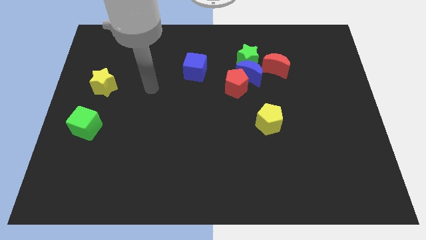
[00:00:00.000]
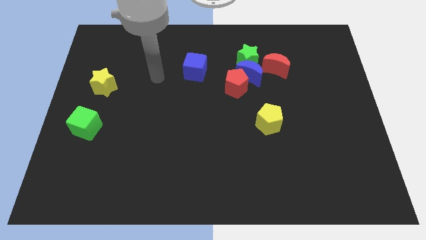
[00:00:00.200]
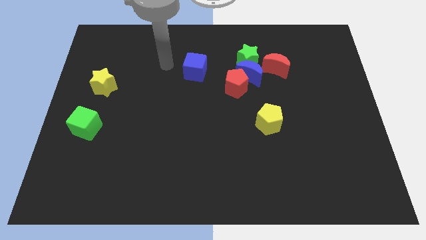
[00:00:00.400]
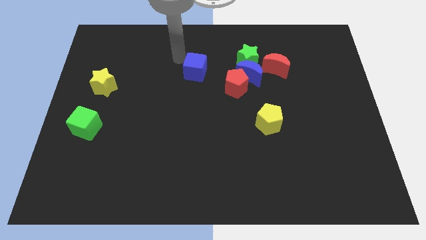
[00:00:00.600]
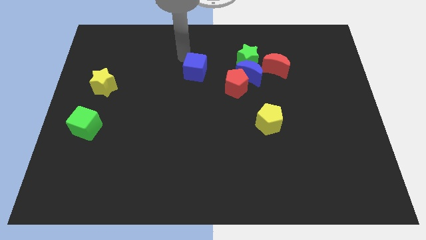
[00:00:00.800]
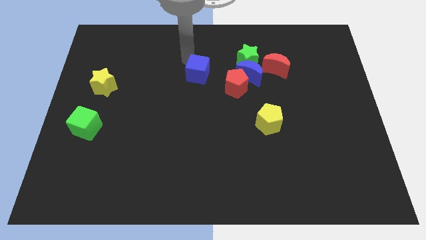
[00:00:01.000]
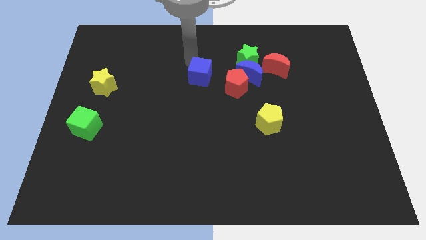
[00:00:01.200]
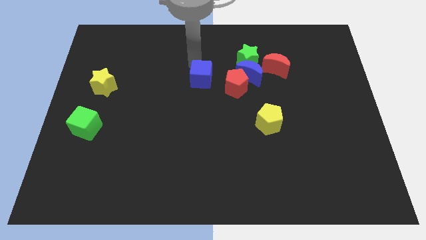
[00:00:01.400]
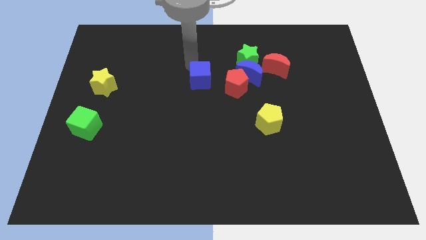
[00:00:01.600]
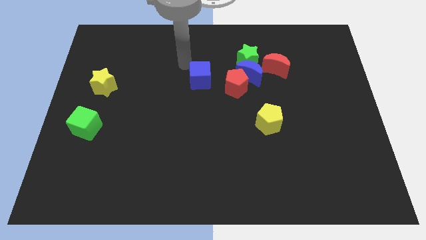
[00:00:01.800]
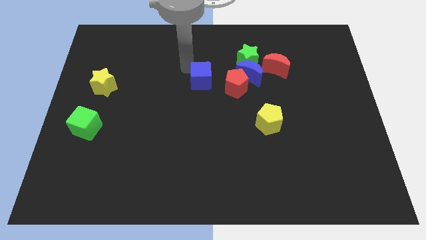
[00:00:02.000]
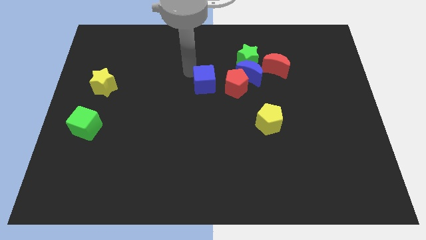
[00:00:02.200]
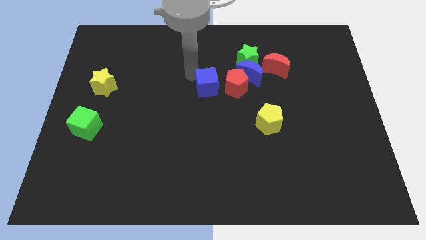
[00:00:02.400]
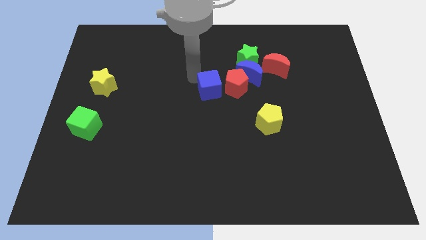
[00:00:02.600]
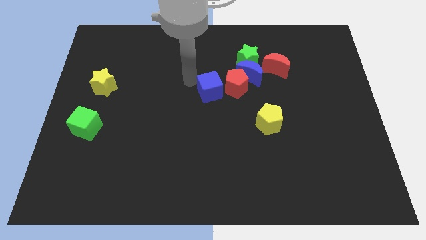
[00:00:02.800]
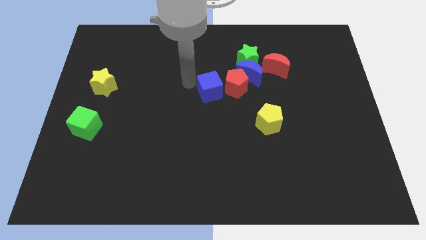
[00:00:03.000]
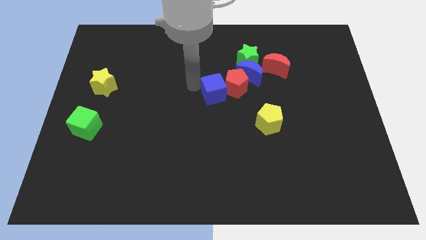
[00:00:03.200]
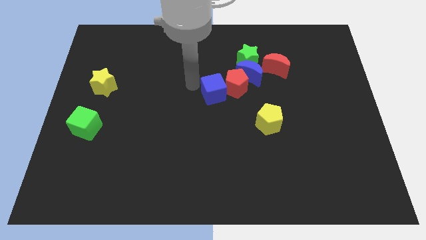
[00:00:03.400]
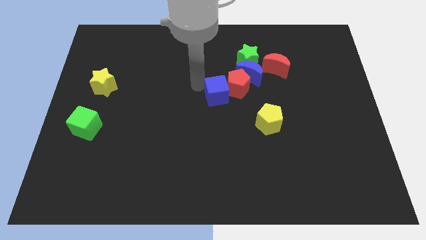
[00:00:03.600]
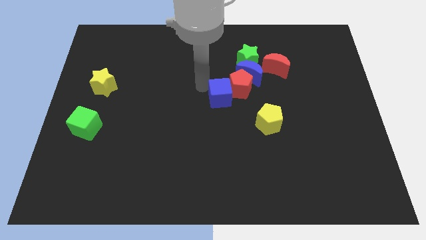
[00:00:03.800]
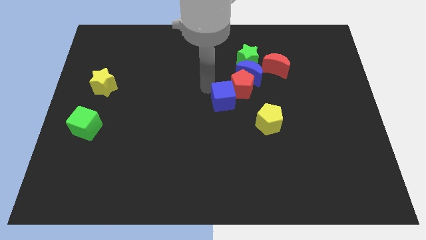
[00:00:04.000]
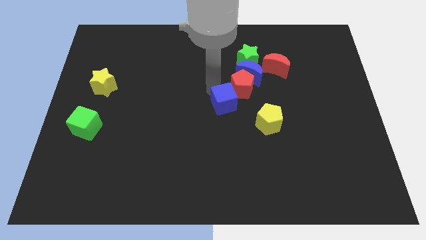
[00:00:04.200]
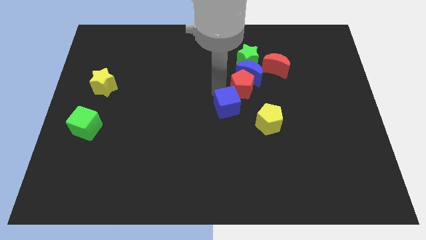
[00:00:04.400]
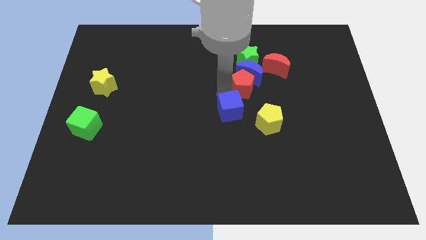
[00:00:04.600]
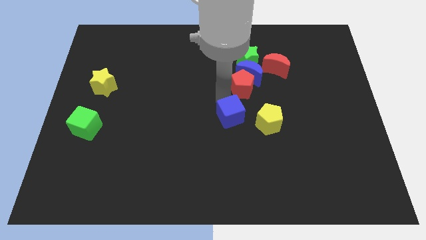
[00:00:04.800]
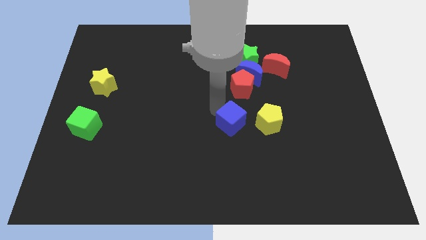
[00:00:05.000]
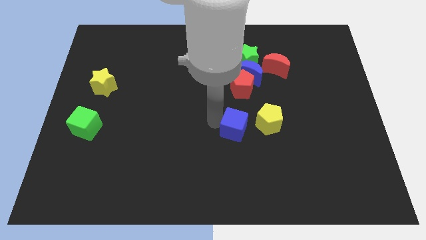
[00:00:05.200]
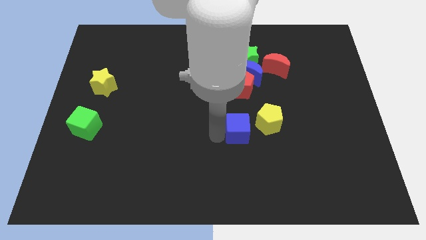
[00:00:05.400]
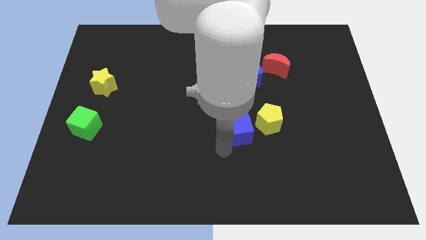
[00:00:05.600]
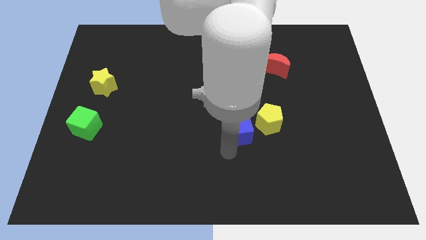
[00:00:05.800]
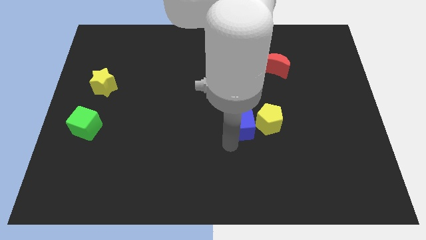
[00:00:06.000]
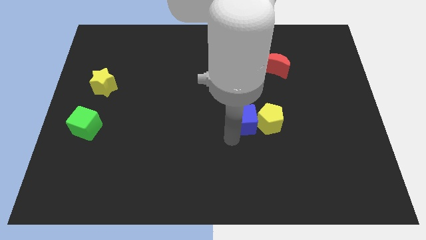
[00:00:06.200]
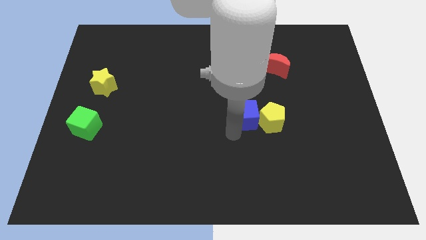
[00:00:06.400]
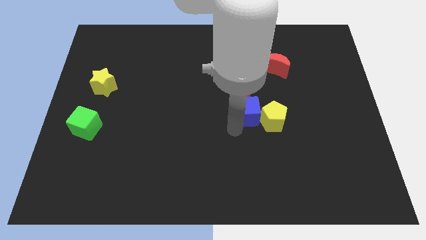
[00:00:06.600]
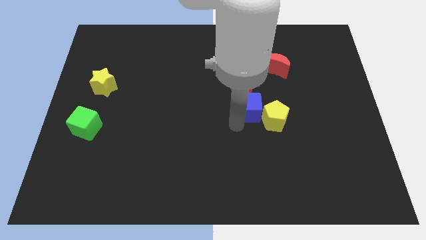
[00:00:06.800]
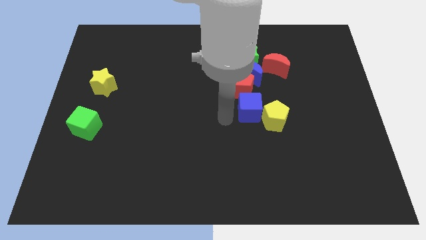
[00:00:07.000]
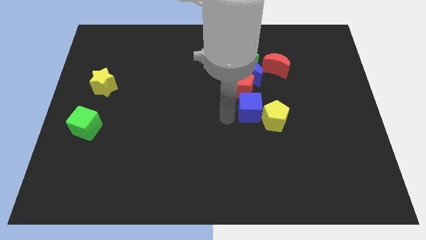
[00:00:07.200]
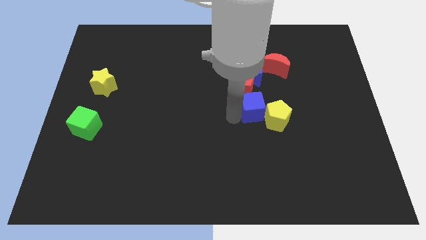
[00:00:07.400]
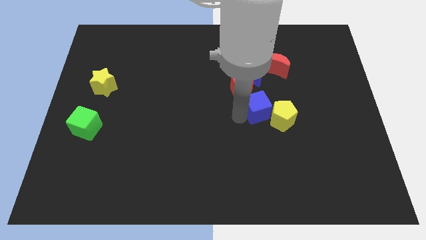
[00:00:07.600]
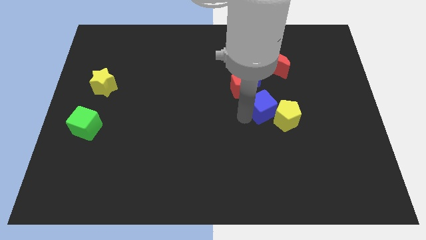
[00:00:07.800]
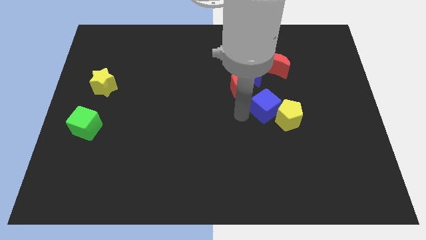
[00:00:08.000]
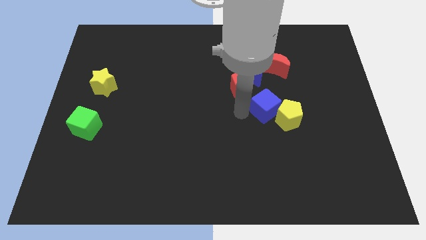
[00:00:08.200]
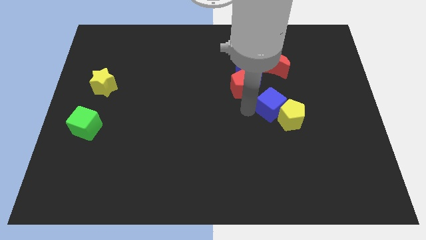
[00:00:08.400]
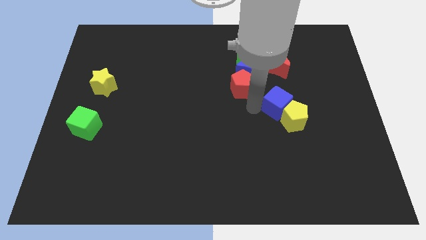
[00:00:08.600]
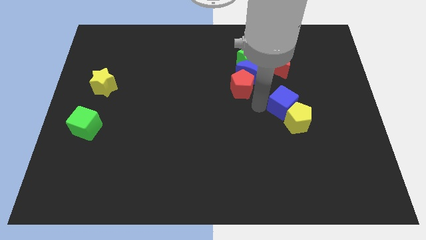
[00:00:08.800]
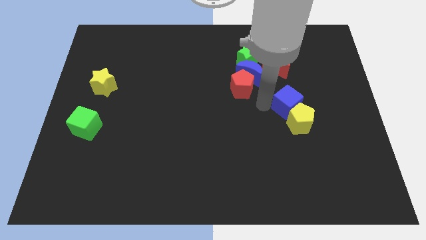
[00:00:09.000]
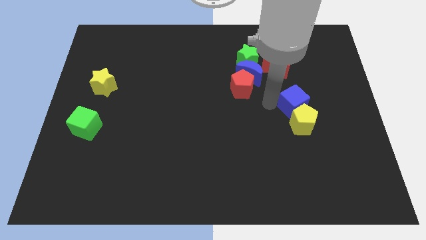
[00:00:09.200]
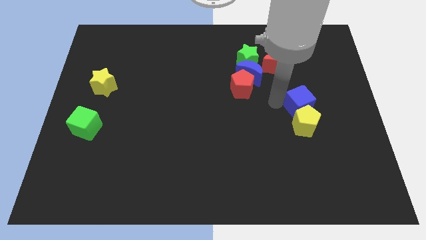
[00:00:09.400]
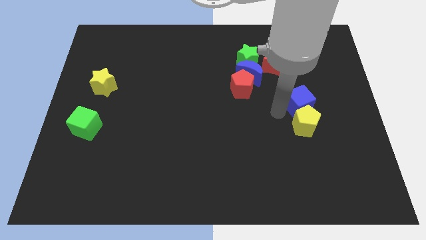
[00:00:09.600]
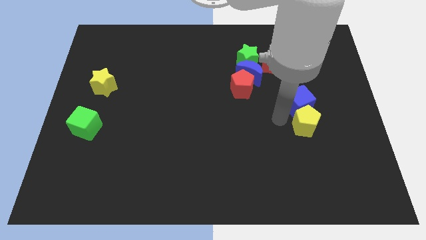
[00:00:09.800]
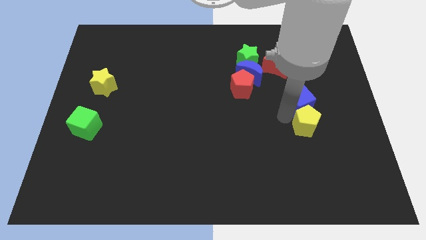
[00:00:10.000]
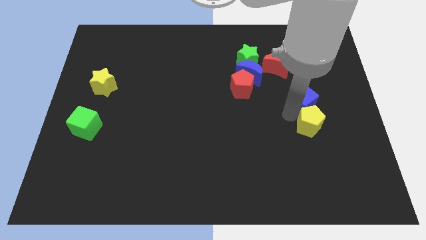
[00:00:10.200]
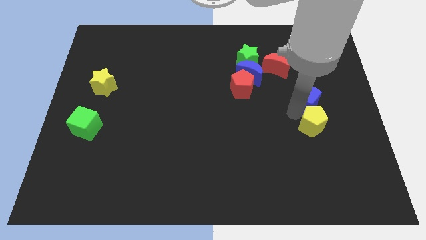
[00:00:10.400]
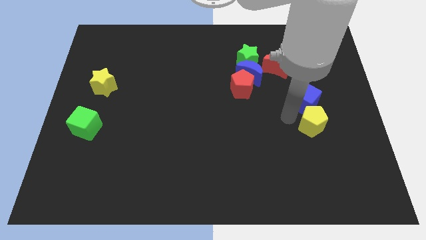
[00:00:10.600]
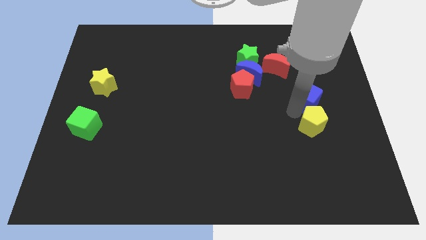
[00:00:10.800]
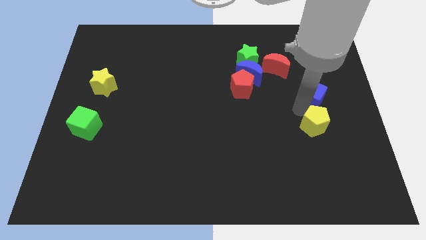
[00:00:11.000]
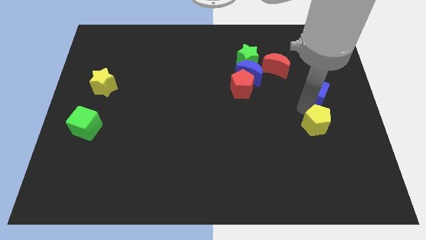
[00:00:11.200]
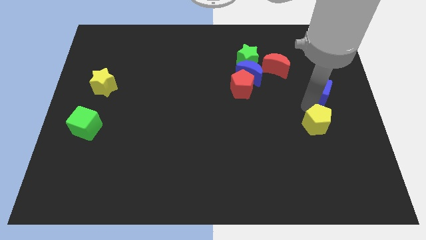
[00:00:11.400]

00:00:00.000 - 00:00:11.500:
push the blue cube to the right side of the board
